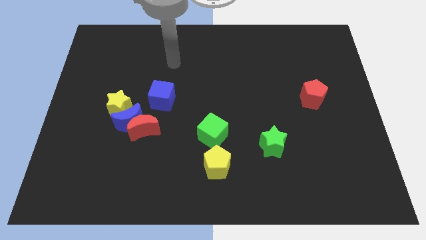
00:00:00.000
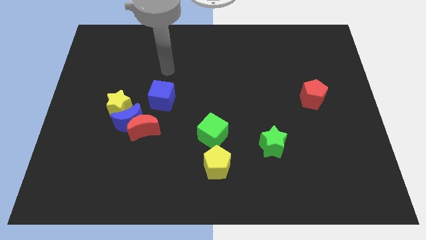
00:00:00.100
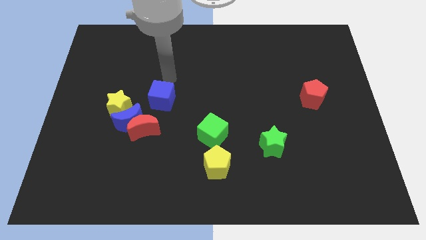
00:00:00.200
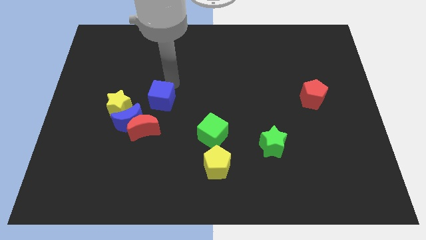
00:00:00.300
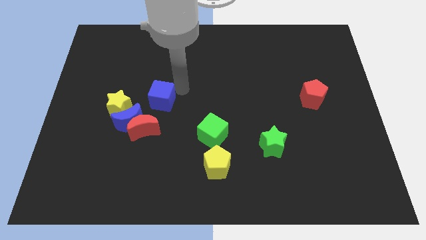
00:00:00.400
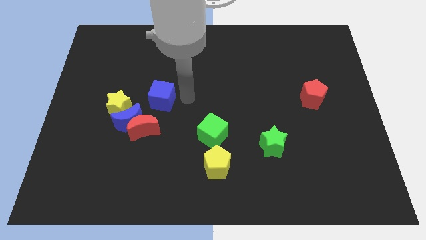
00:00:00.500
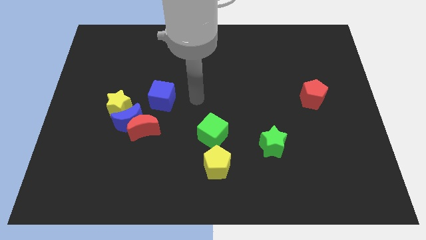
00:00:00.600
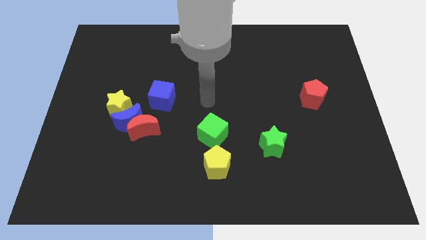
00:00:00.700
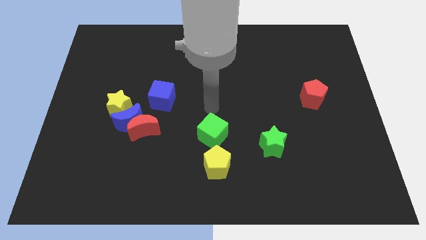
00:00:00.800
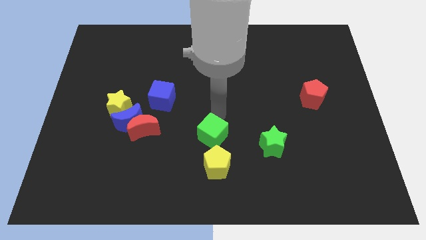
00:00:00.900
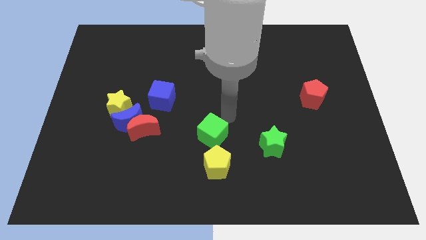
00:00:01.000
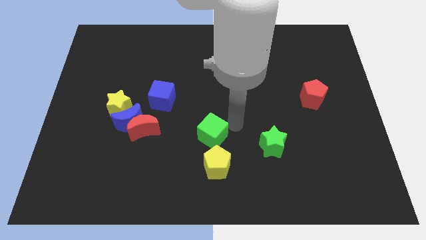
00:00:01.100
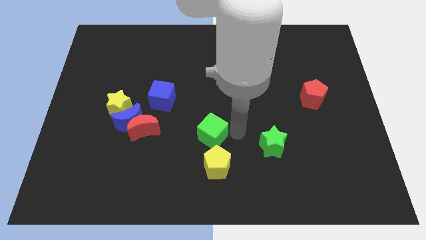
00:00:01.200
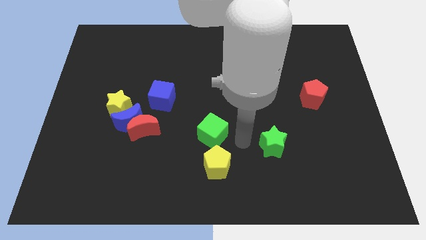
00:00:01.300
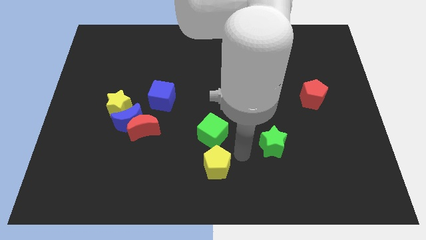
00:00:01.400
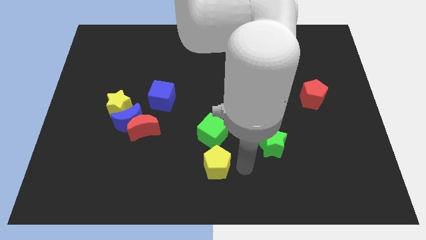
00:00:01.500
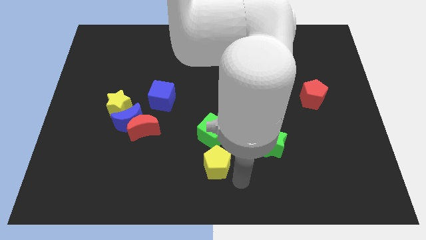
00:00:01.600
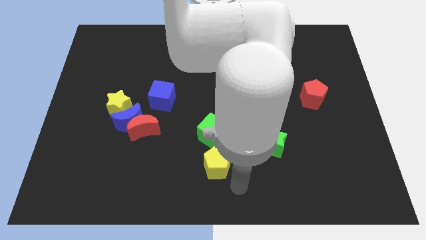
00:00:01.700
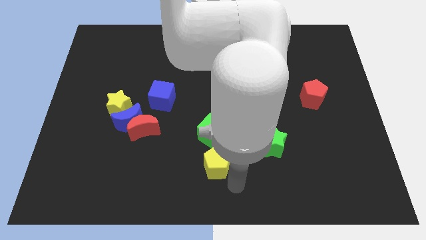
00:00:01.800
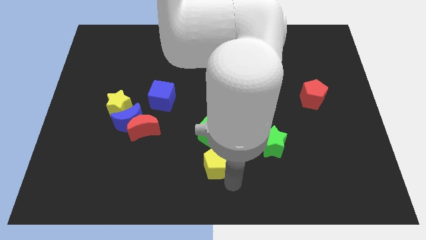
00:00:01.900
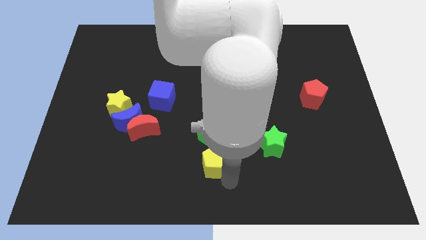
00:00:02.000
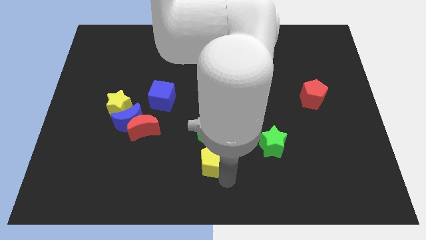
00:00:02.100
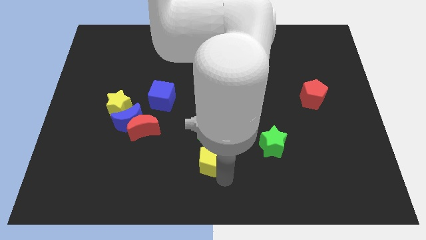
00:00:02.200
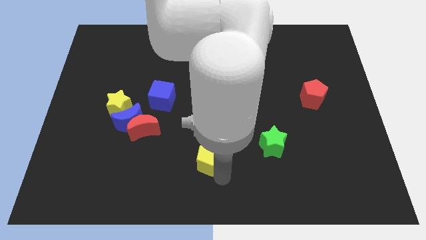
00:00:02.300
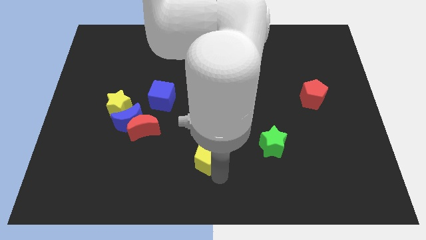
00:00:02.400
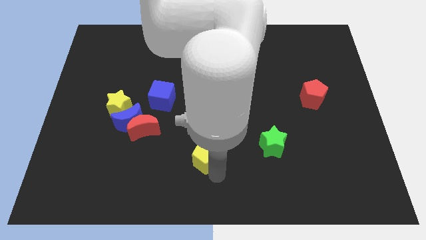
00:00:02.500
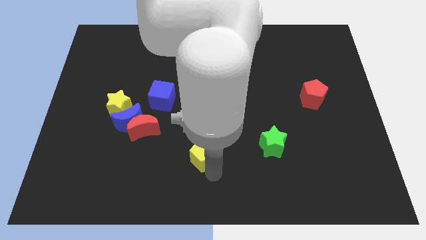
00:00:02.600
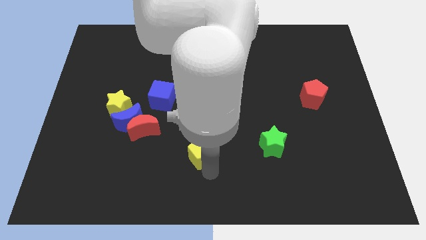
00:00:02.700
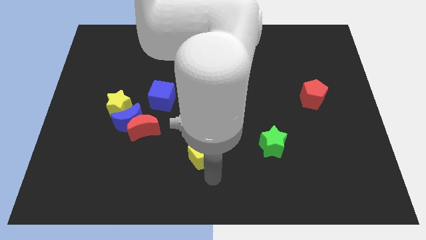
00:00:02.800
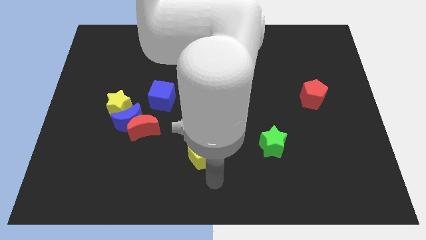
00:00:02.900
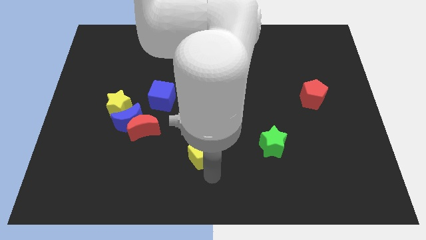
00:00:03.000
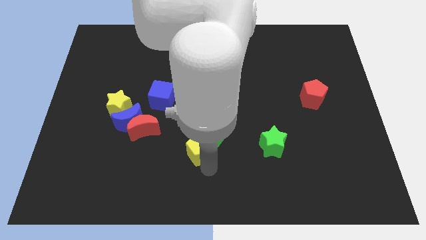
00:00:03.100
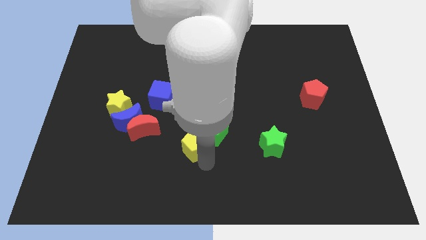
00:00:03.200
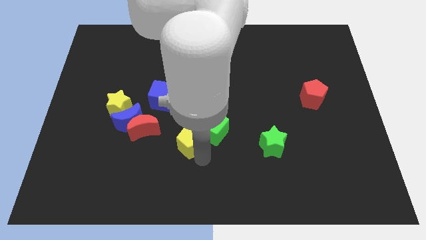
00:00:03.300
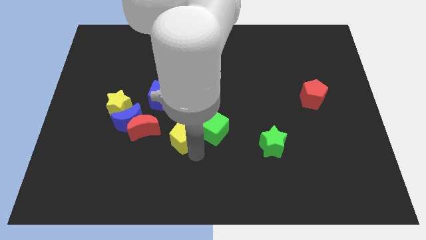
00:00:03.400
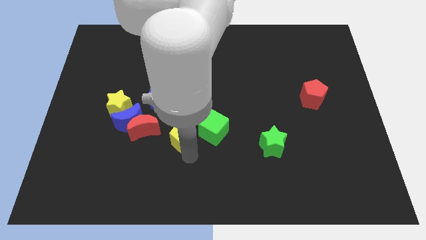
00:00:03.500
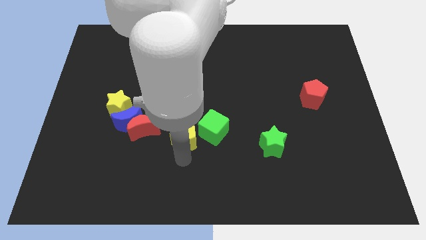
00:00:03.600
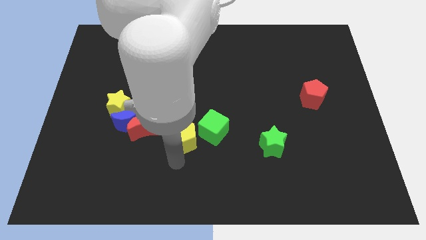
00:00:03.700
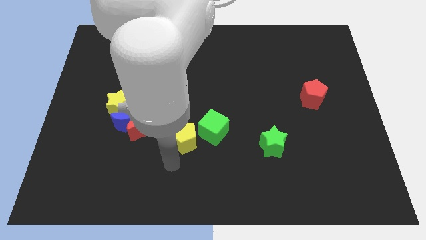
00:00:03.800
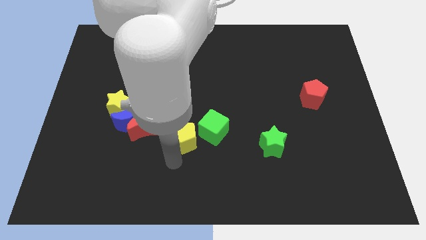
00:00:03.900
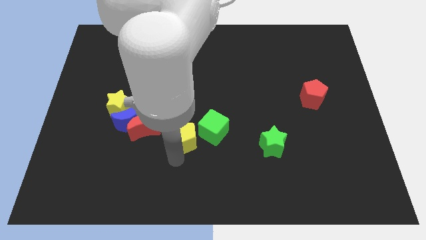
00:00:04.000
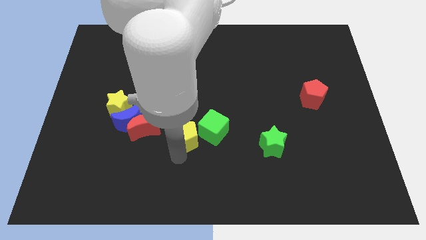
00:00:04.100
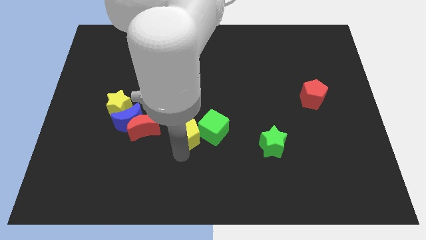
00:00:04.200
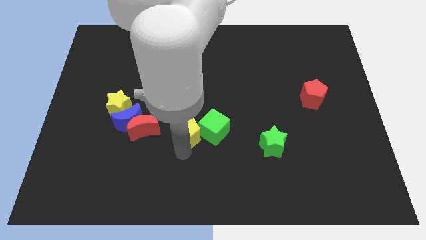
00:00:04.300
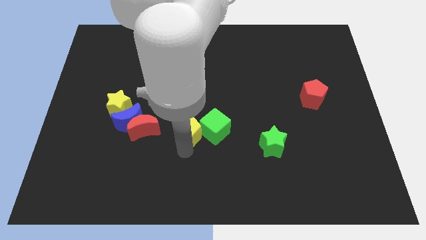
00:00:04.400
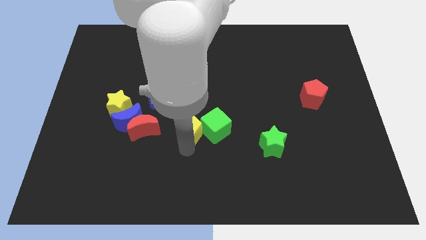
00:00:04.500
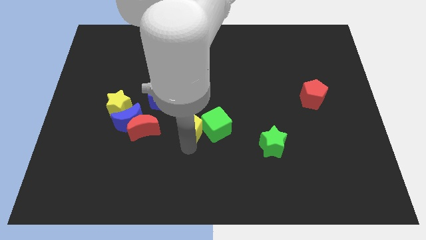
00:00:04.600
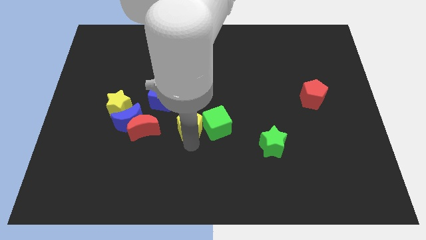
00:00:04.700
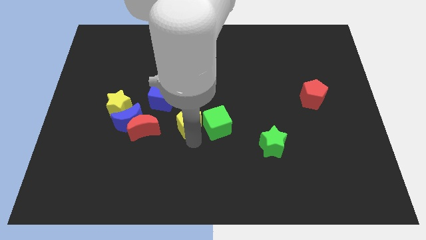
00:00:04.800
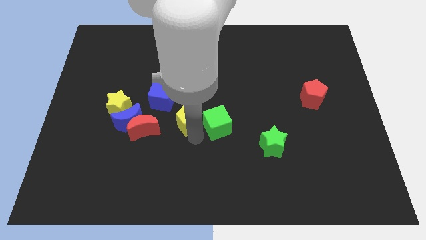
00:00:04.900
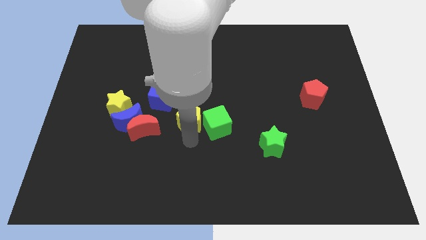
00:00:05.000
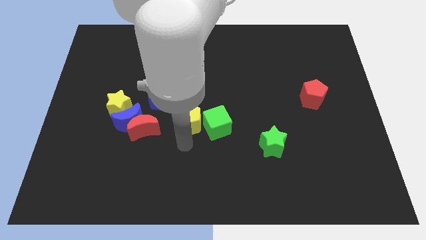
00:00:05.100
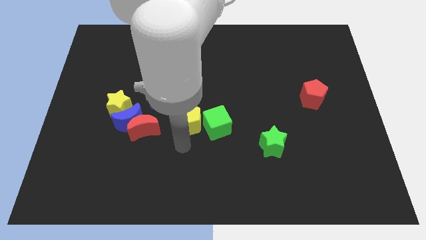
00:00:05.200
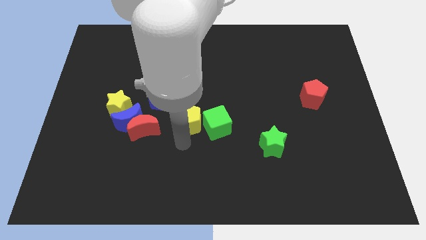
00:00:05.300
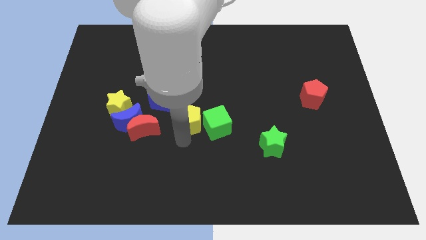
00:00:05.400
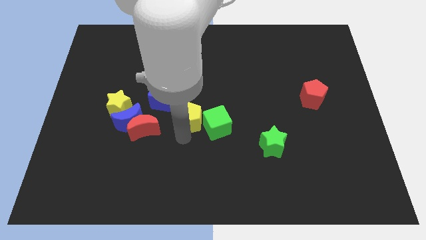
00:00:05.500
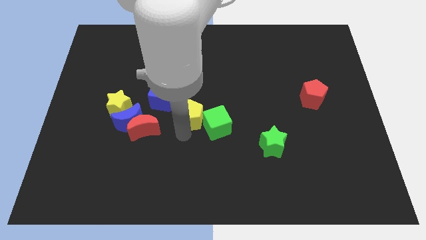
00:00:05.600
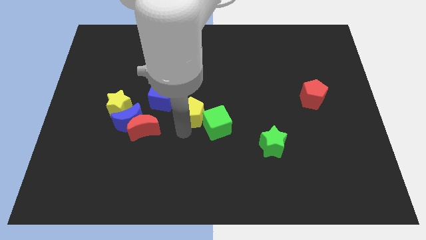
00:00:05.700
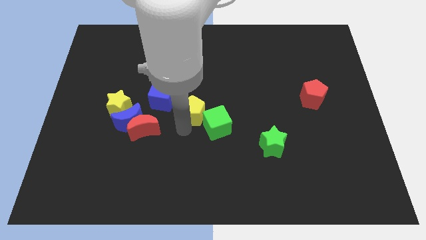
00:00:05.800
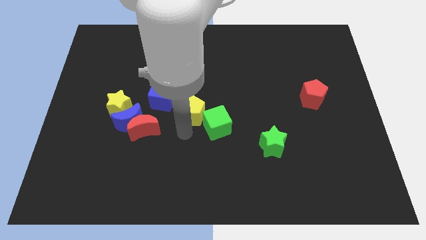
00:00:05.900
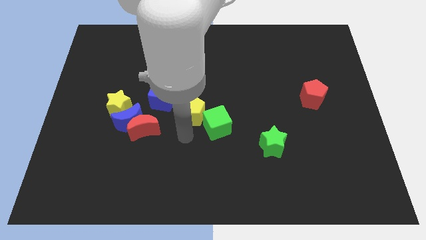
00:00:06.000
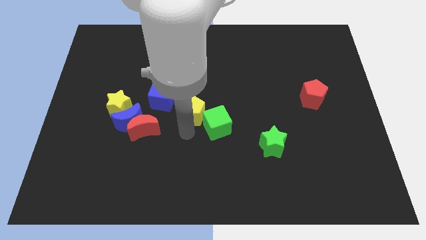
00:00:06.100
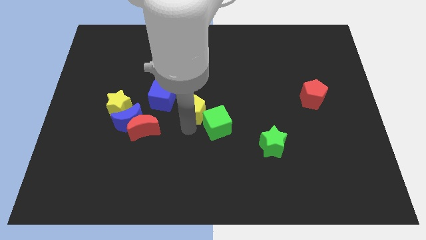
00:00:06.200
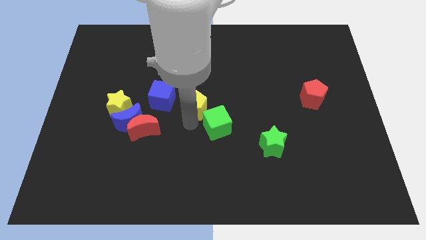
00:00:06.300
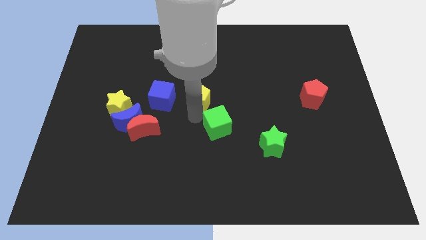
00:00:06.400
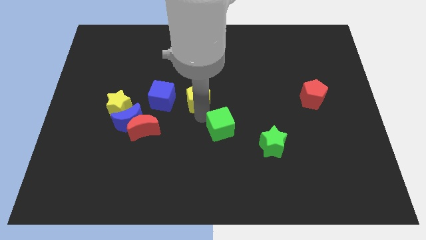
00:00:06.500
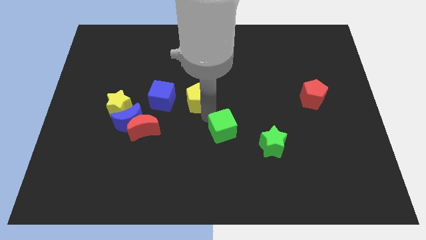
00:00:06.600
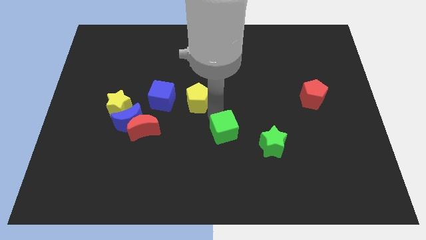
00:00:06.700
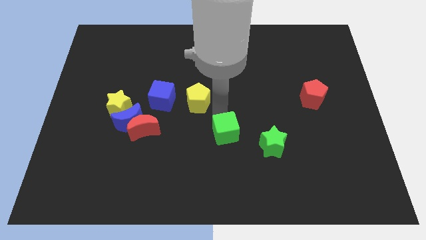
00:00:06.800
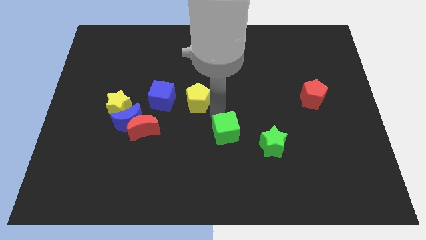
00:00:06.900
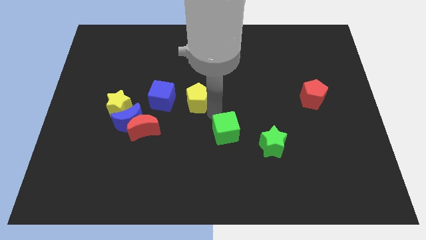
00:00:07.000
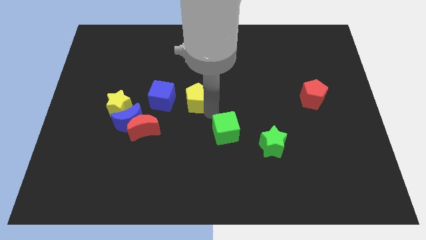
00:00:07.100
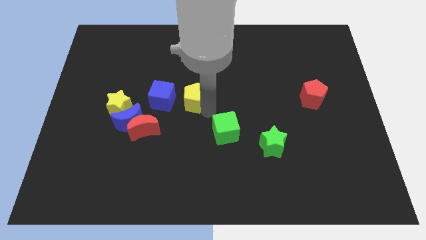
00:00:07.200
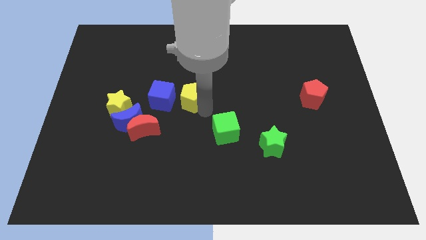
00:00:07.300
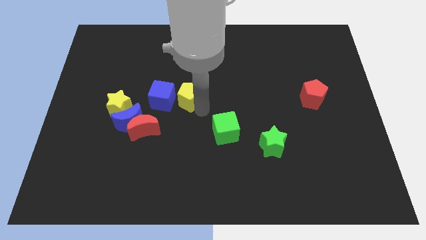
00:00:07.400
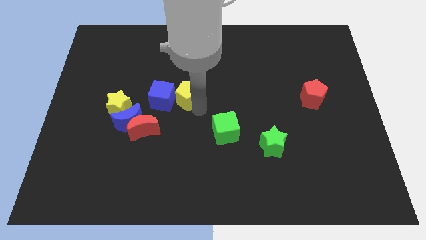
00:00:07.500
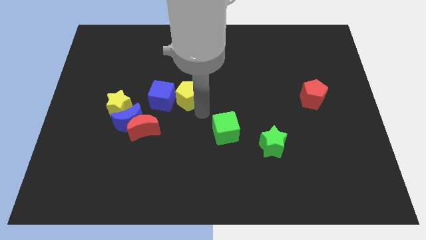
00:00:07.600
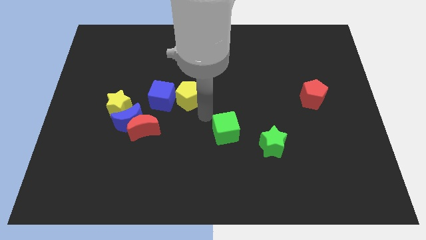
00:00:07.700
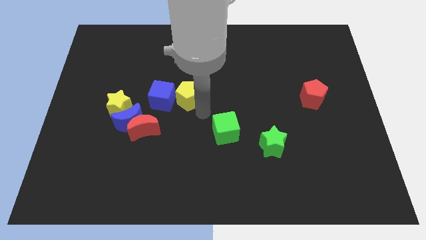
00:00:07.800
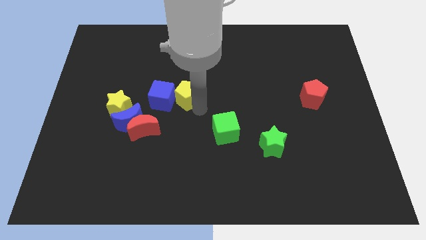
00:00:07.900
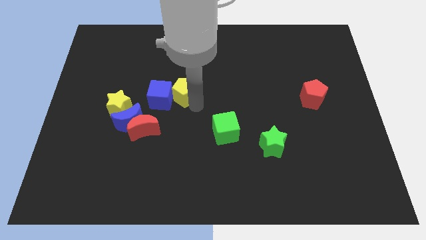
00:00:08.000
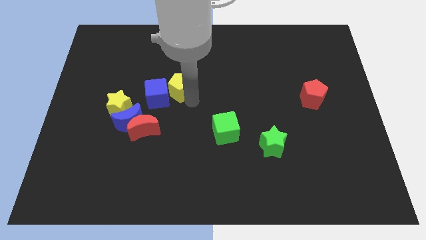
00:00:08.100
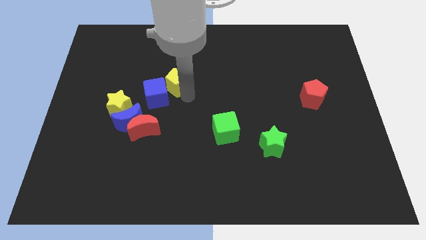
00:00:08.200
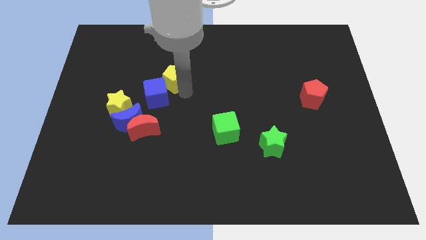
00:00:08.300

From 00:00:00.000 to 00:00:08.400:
move the yellow pentagon upwards and left diagonally
